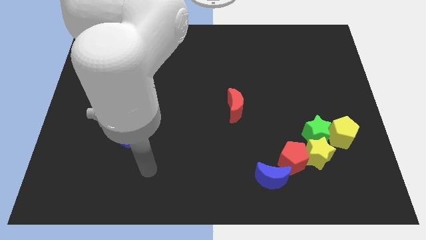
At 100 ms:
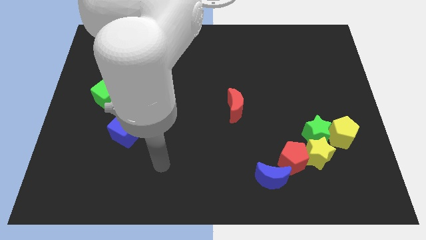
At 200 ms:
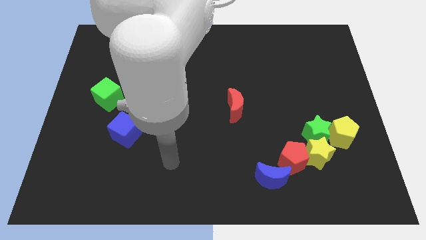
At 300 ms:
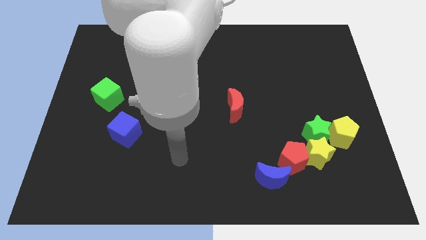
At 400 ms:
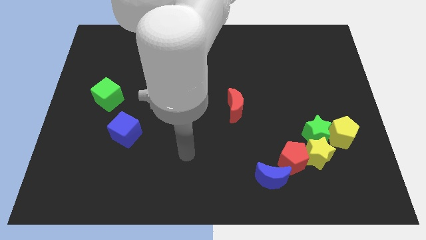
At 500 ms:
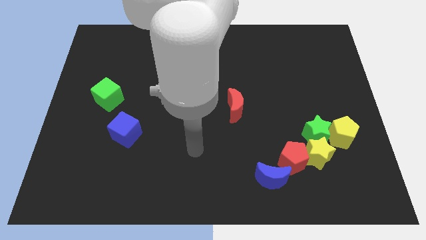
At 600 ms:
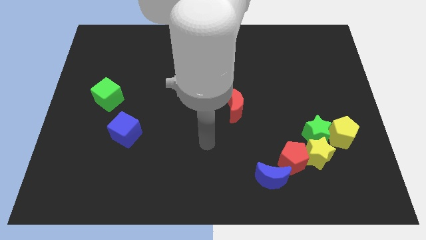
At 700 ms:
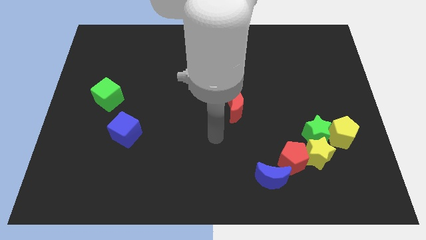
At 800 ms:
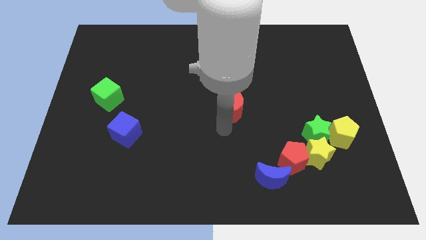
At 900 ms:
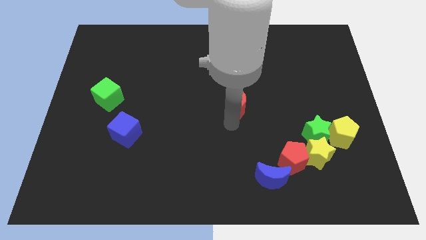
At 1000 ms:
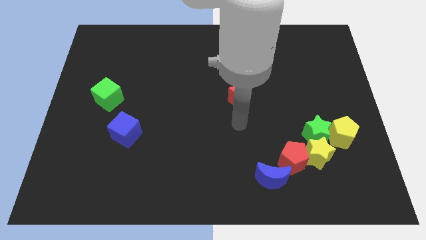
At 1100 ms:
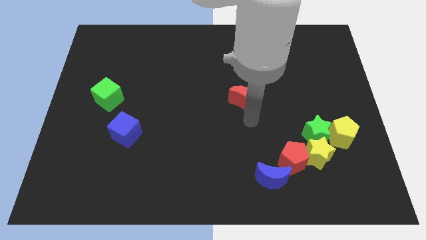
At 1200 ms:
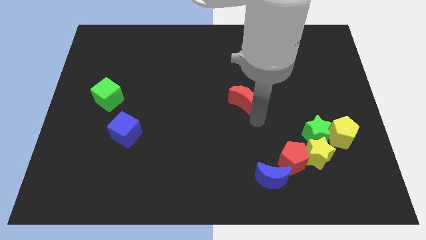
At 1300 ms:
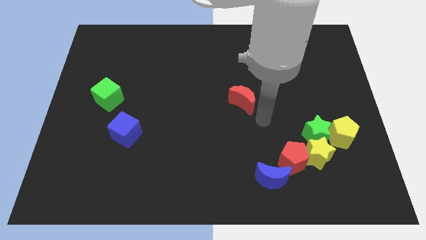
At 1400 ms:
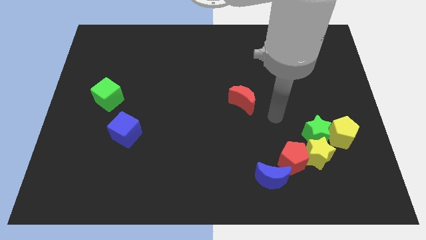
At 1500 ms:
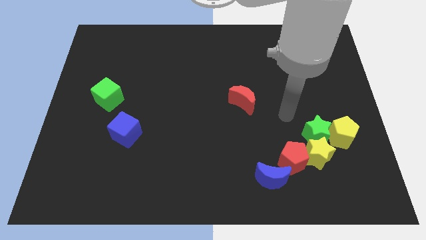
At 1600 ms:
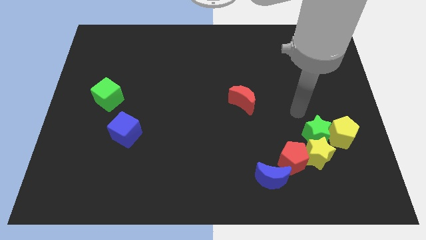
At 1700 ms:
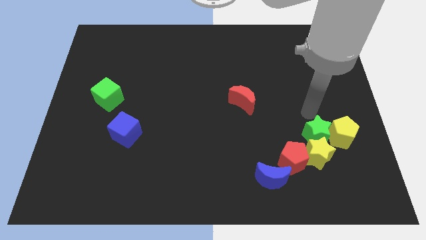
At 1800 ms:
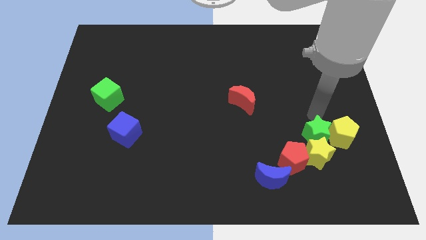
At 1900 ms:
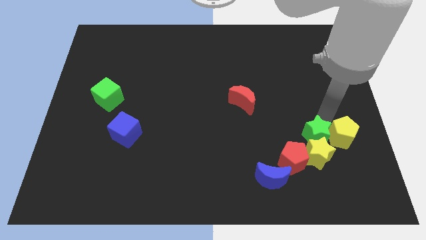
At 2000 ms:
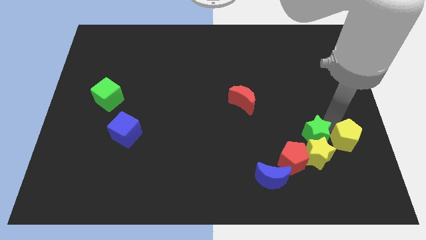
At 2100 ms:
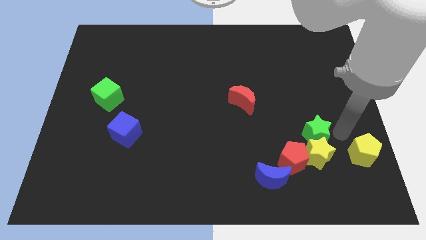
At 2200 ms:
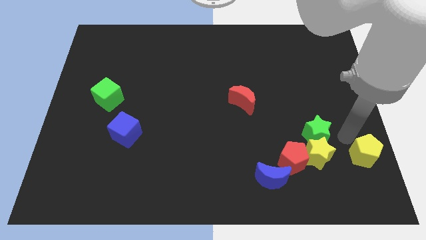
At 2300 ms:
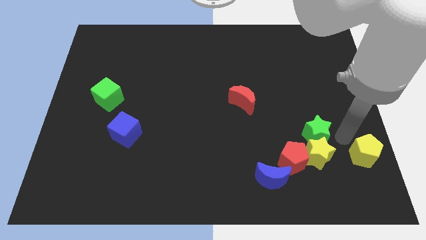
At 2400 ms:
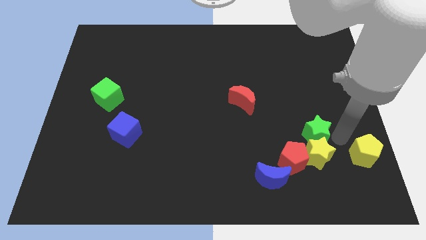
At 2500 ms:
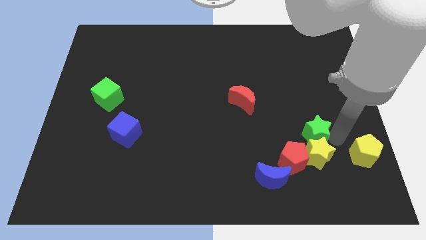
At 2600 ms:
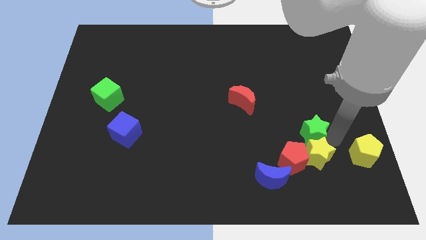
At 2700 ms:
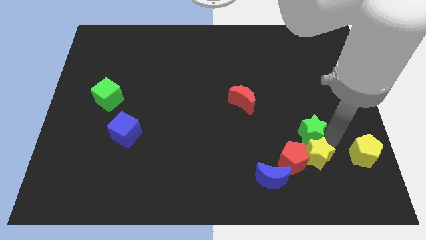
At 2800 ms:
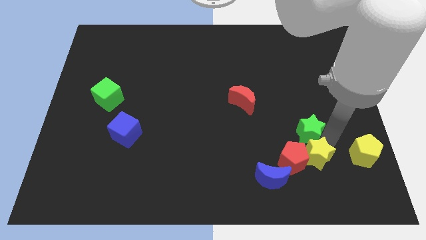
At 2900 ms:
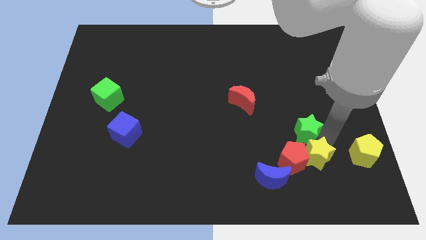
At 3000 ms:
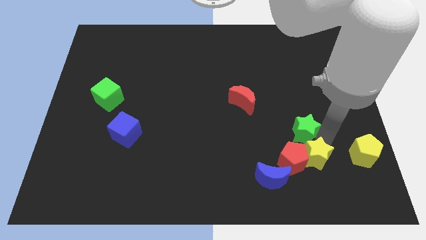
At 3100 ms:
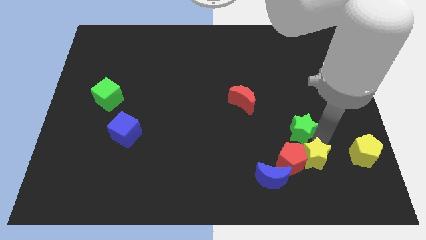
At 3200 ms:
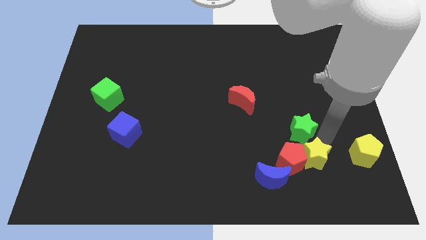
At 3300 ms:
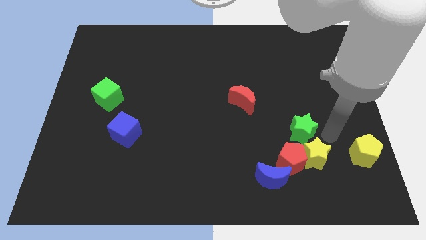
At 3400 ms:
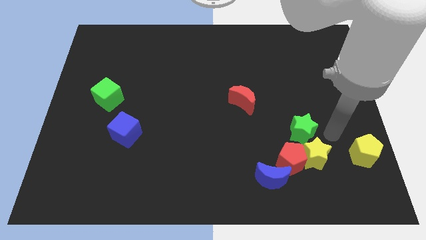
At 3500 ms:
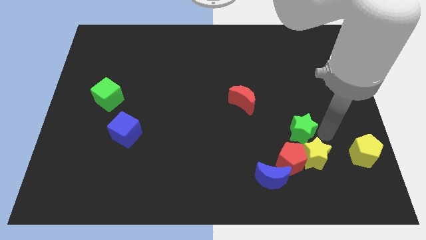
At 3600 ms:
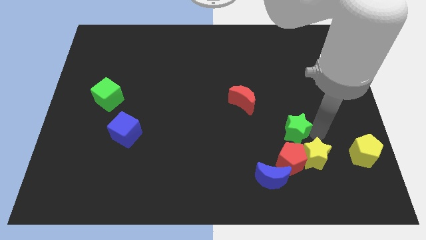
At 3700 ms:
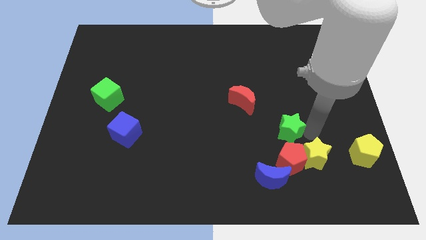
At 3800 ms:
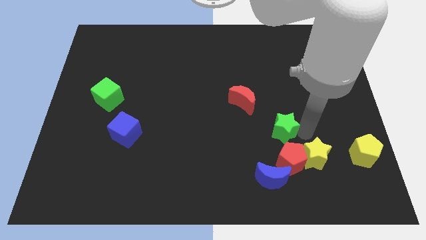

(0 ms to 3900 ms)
move the green star a little bit to the left

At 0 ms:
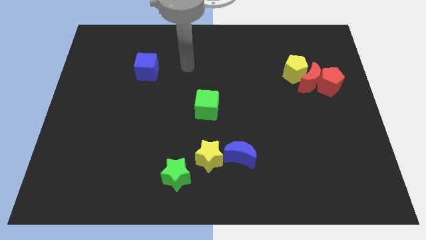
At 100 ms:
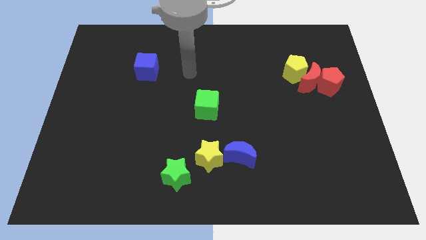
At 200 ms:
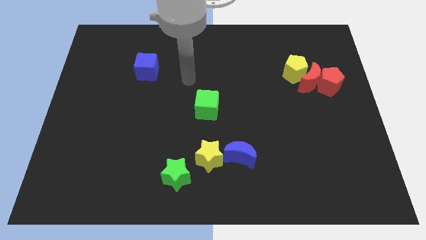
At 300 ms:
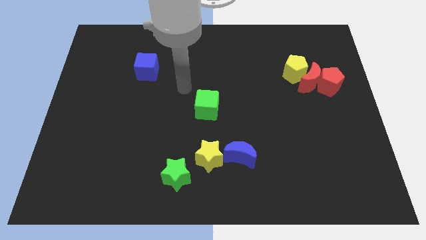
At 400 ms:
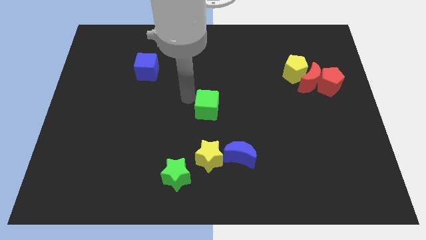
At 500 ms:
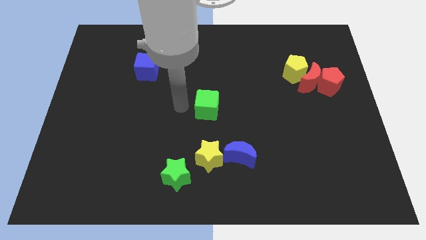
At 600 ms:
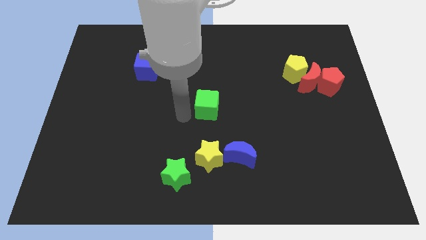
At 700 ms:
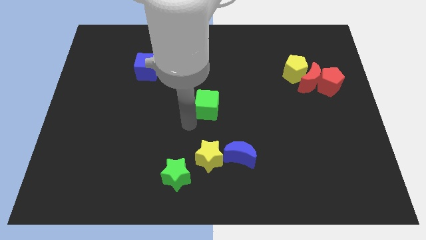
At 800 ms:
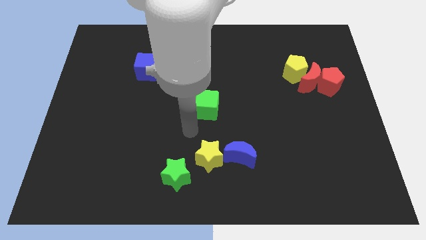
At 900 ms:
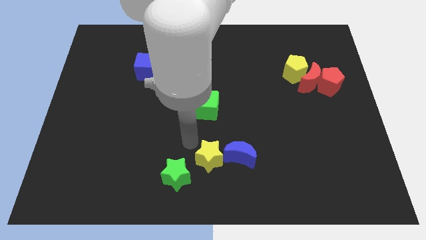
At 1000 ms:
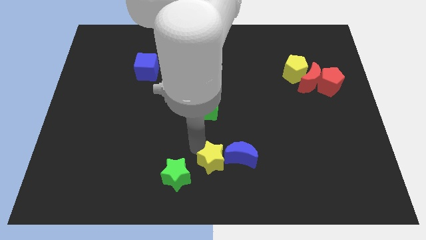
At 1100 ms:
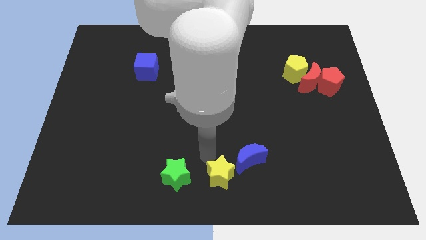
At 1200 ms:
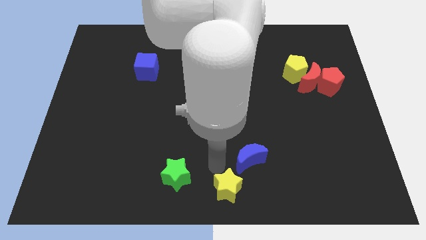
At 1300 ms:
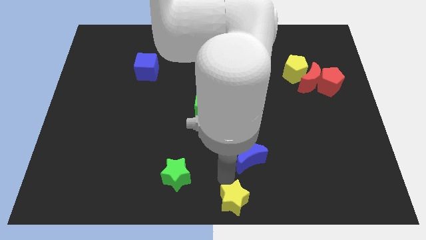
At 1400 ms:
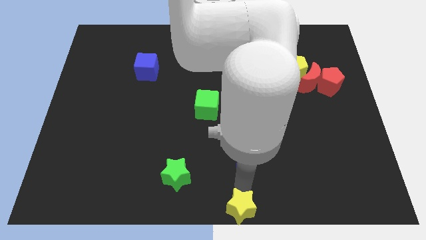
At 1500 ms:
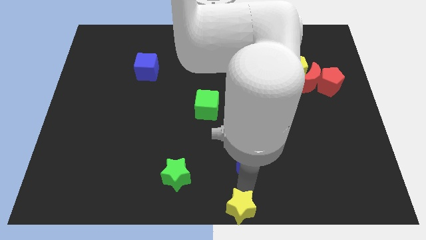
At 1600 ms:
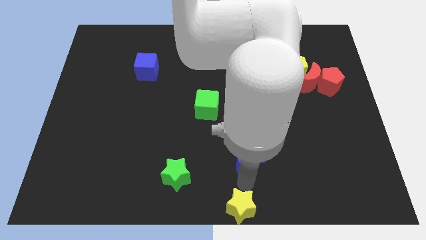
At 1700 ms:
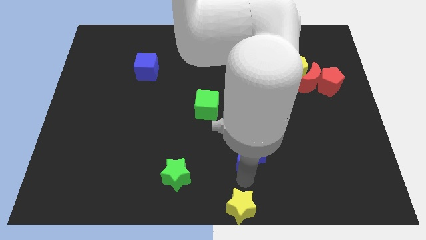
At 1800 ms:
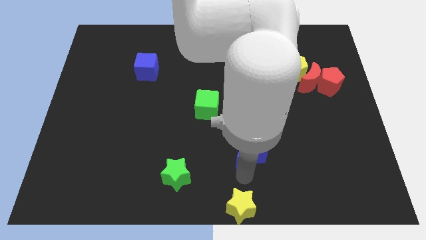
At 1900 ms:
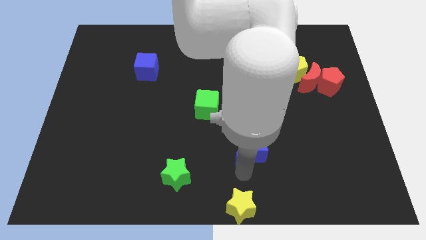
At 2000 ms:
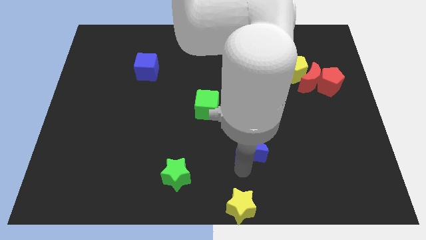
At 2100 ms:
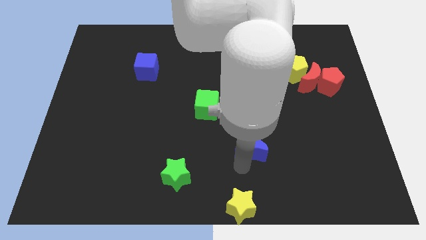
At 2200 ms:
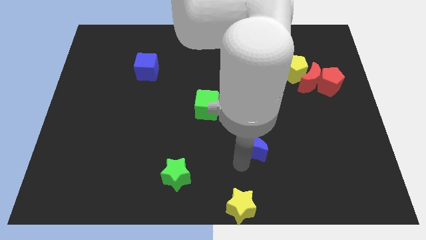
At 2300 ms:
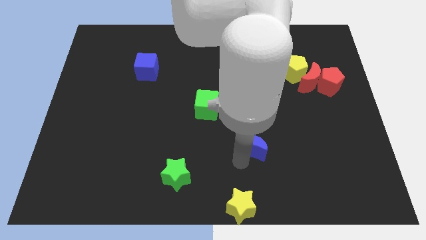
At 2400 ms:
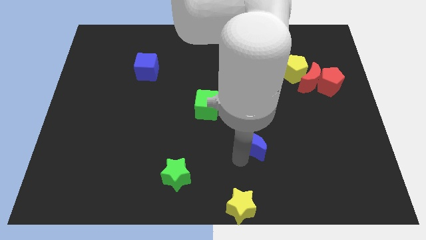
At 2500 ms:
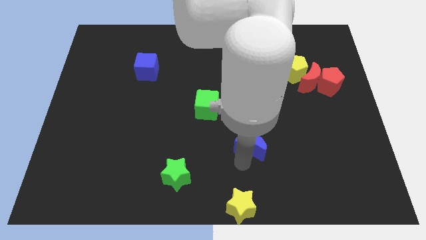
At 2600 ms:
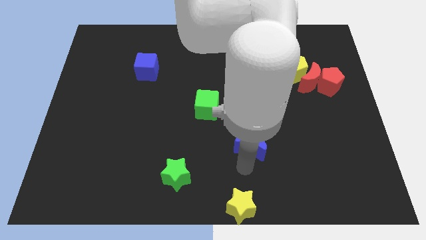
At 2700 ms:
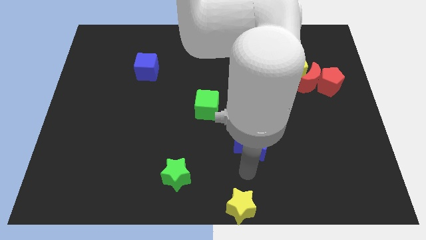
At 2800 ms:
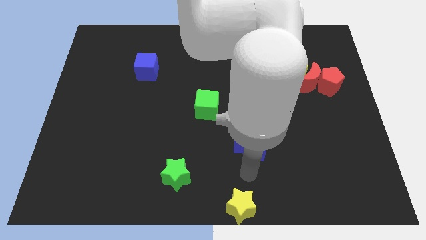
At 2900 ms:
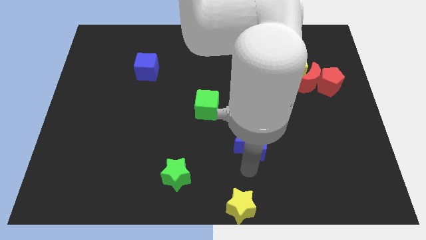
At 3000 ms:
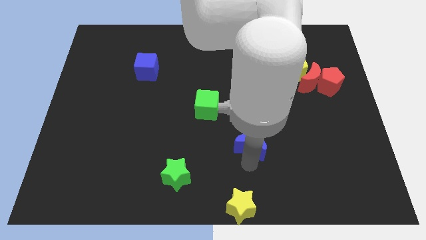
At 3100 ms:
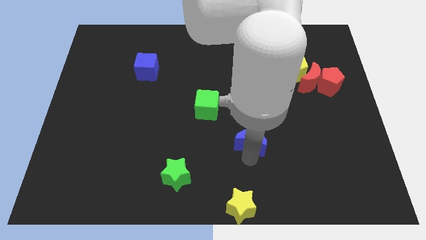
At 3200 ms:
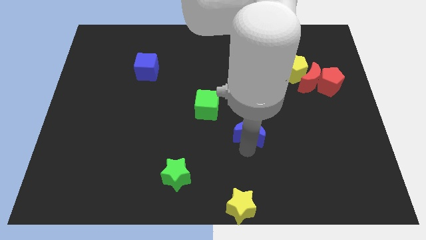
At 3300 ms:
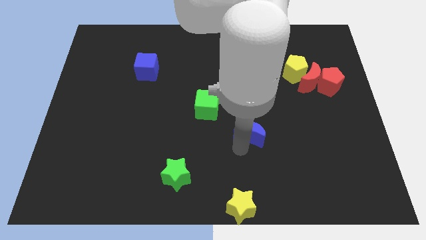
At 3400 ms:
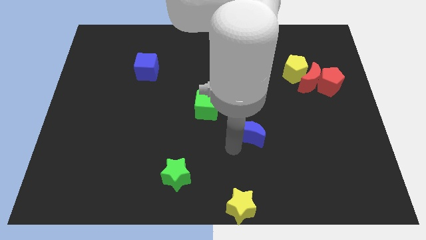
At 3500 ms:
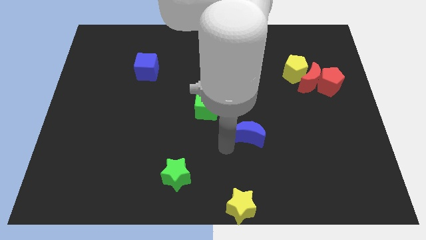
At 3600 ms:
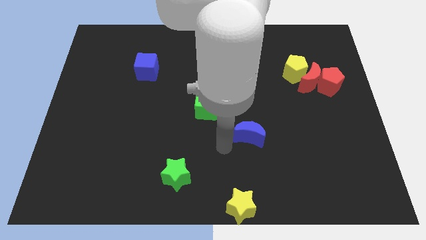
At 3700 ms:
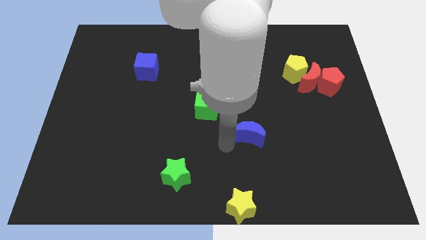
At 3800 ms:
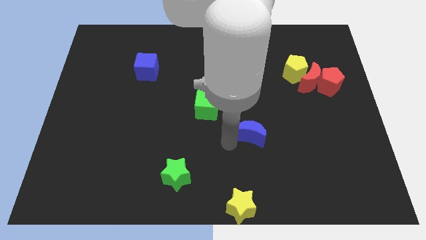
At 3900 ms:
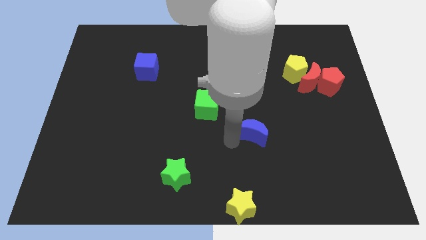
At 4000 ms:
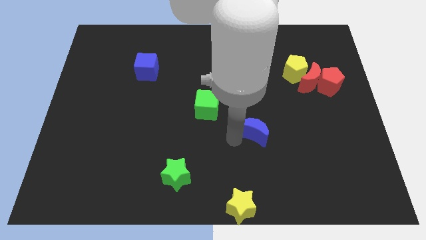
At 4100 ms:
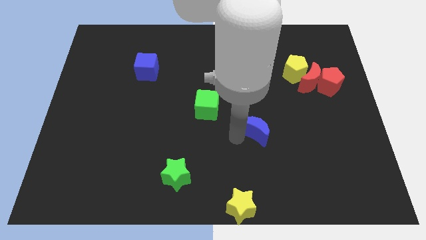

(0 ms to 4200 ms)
slightly push the blue moon upwards and then to the right
